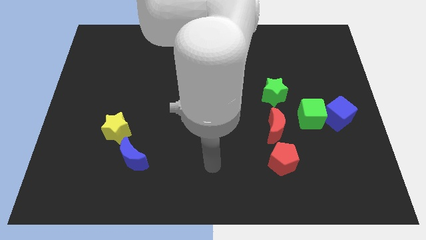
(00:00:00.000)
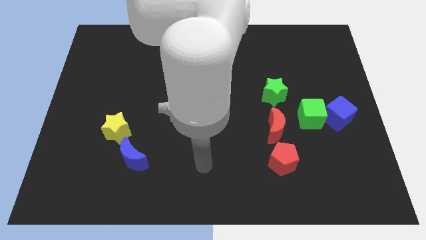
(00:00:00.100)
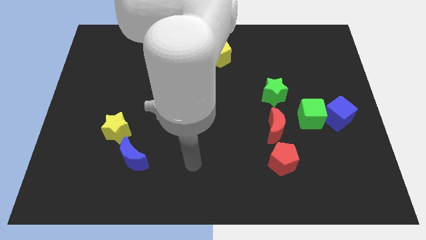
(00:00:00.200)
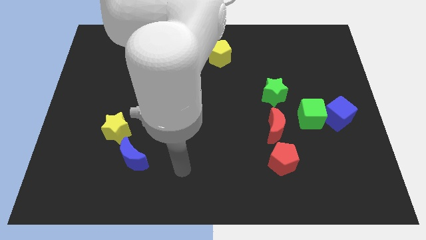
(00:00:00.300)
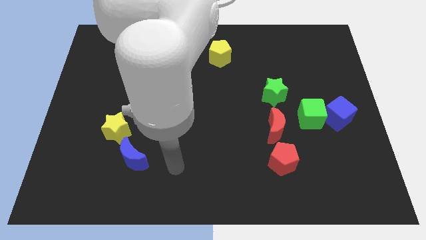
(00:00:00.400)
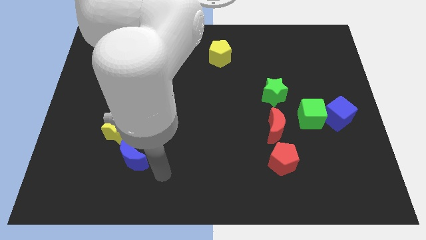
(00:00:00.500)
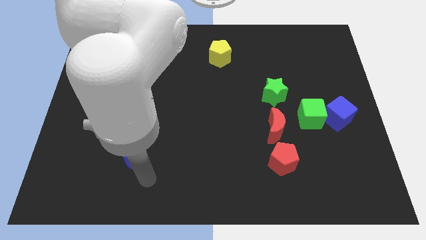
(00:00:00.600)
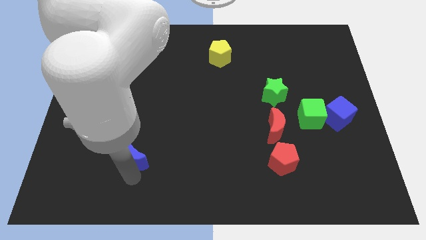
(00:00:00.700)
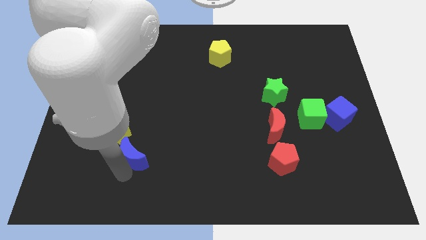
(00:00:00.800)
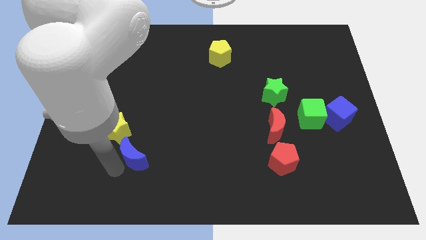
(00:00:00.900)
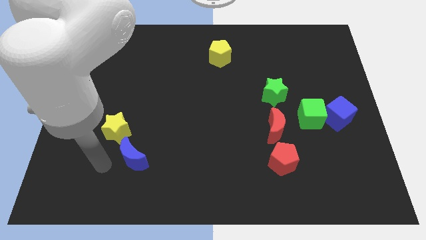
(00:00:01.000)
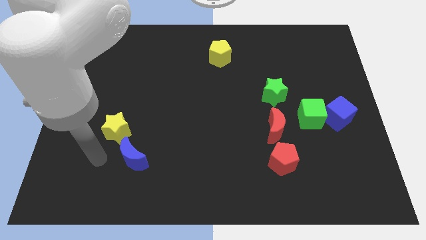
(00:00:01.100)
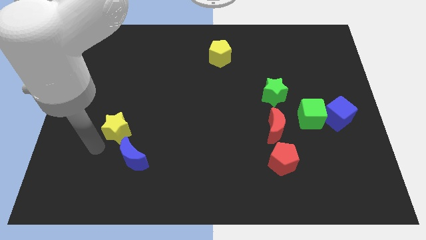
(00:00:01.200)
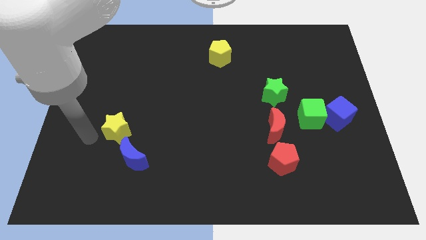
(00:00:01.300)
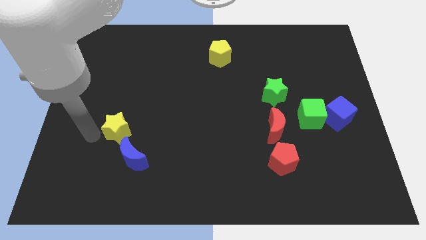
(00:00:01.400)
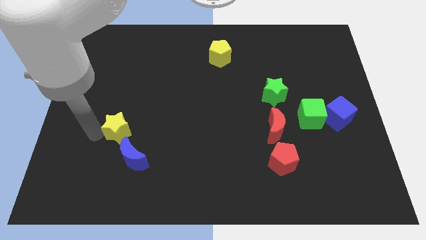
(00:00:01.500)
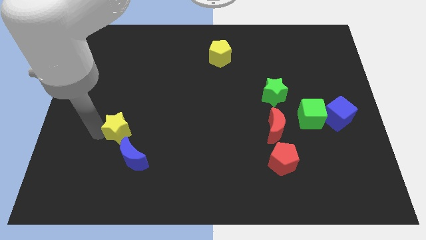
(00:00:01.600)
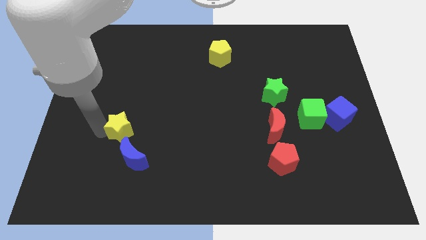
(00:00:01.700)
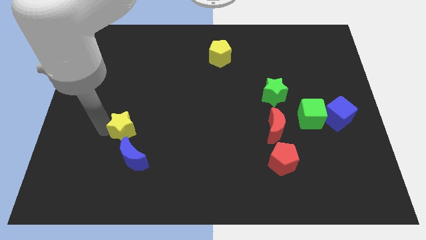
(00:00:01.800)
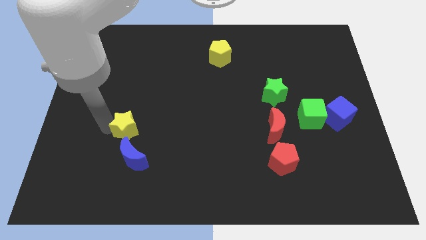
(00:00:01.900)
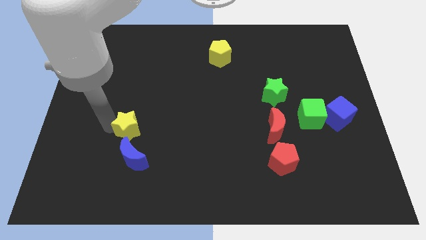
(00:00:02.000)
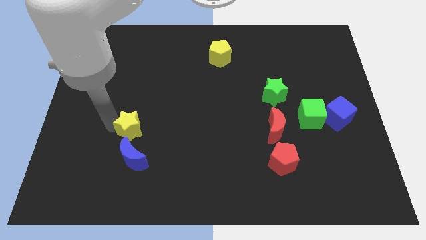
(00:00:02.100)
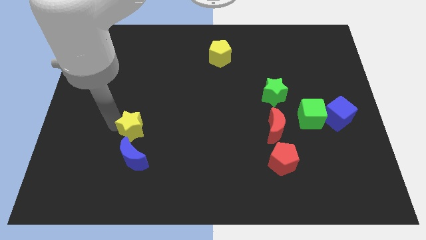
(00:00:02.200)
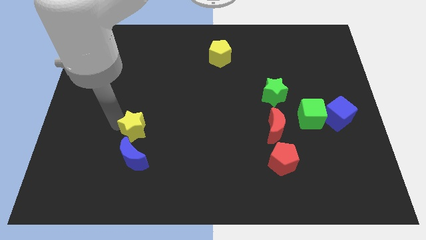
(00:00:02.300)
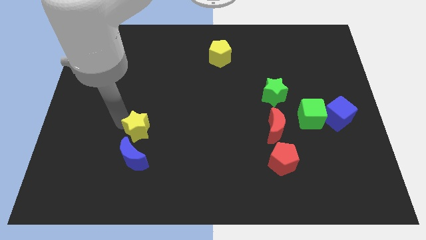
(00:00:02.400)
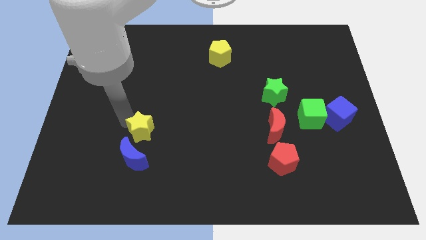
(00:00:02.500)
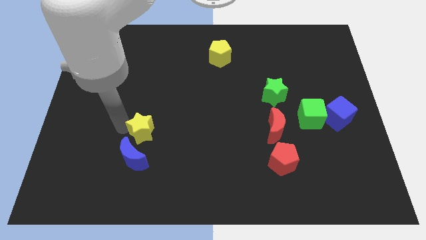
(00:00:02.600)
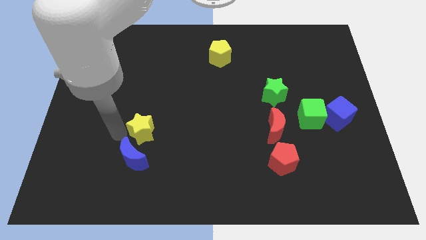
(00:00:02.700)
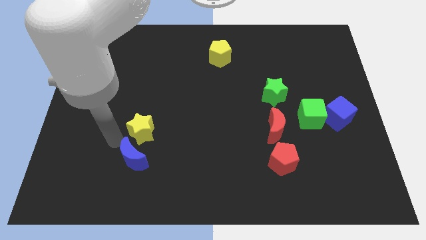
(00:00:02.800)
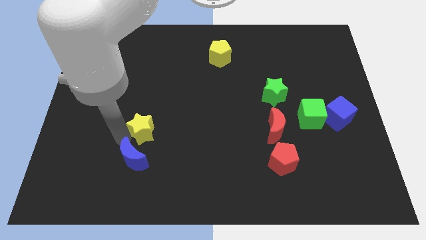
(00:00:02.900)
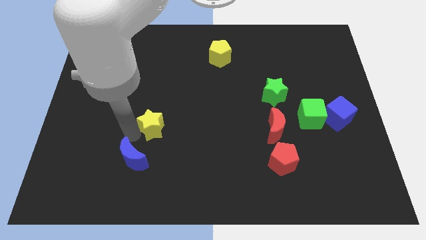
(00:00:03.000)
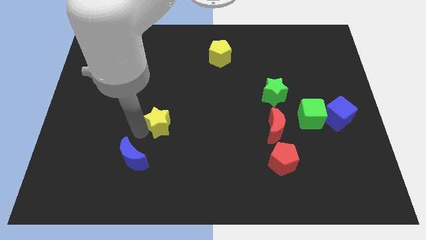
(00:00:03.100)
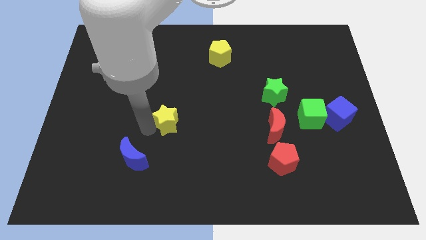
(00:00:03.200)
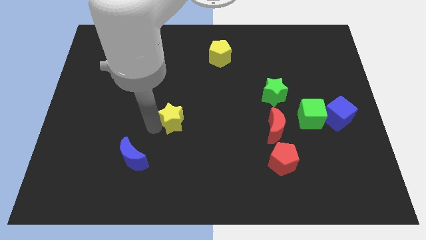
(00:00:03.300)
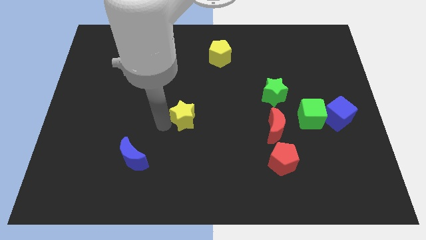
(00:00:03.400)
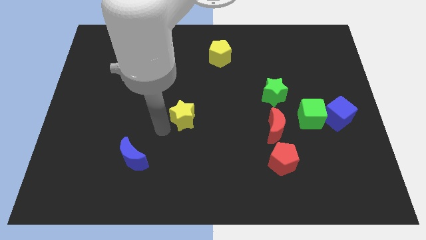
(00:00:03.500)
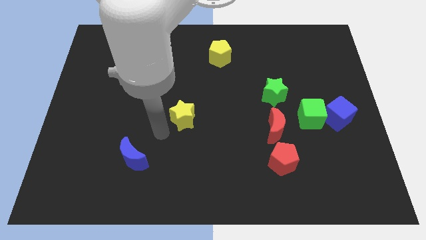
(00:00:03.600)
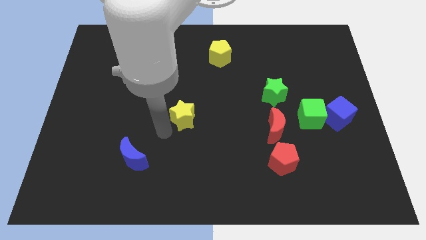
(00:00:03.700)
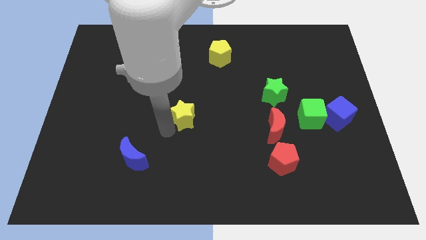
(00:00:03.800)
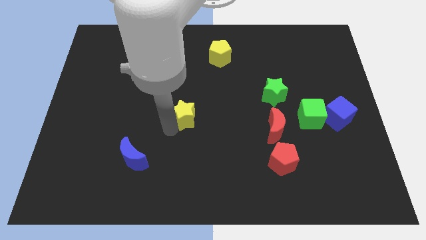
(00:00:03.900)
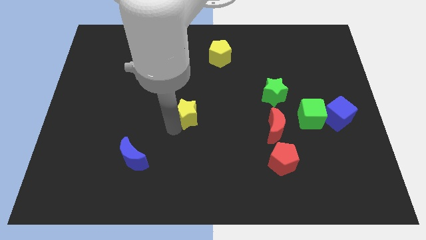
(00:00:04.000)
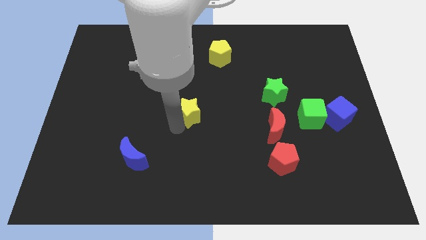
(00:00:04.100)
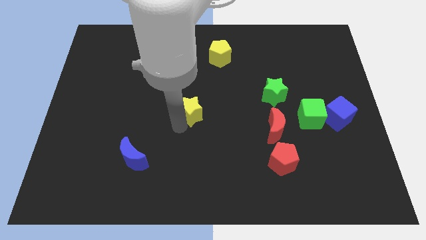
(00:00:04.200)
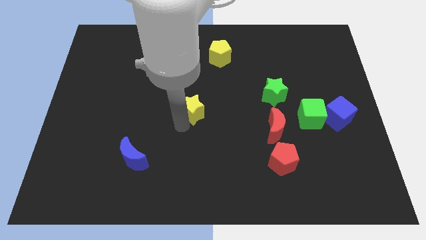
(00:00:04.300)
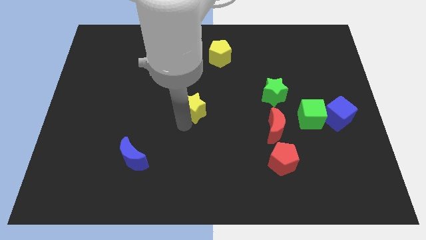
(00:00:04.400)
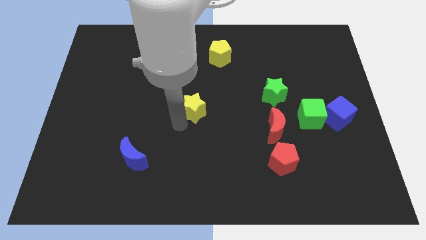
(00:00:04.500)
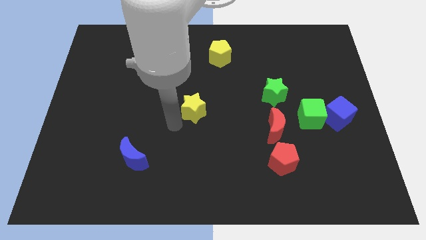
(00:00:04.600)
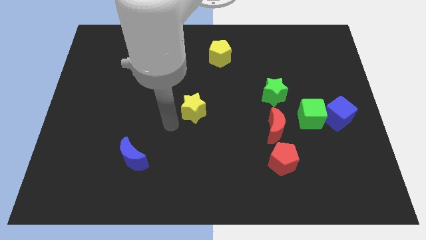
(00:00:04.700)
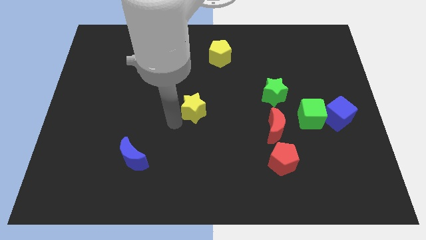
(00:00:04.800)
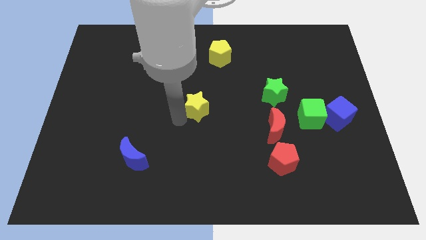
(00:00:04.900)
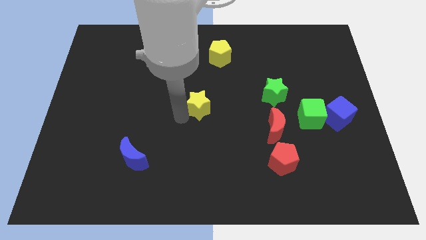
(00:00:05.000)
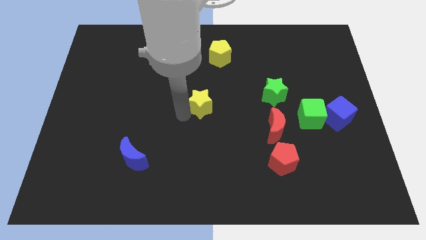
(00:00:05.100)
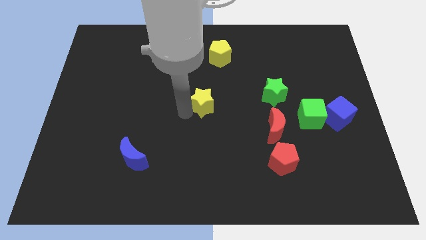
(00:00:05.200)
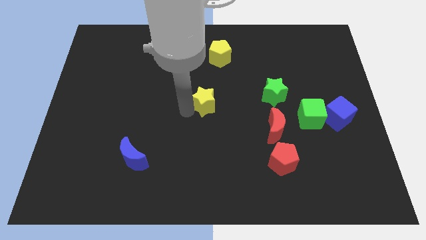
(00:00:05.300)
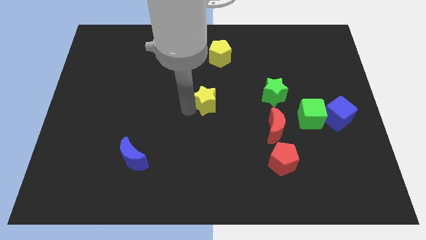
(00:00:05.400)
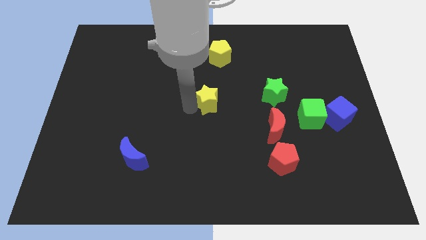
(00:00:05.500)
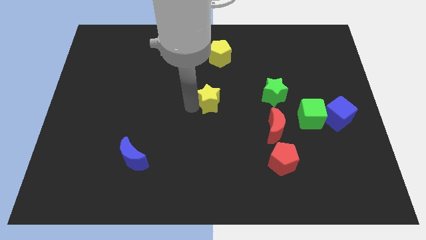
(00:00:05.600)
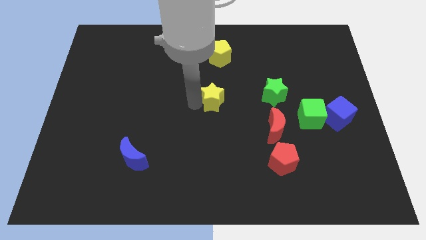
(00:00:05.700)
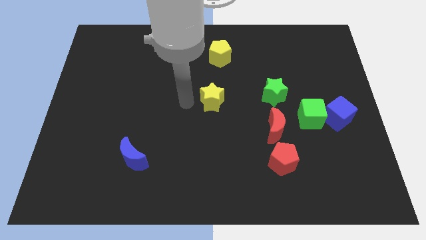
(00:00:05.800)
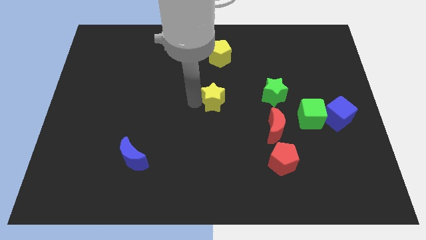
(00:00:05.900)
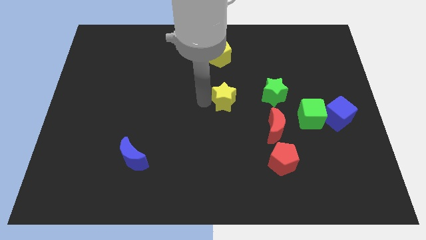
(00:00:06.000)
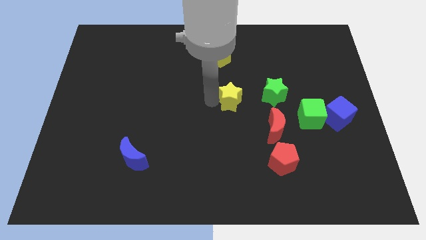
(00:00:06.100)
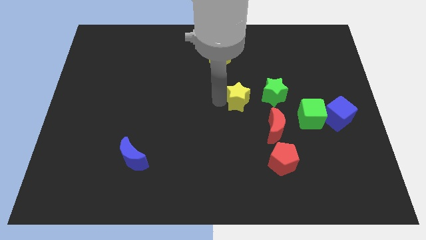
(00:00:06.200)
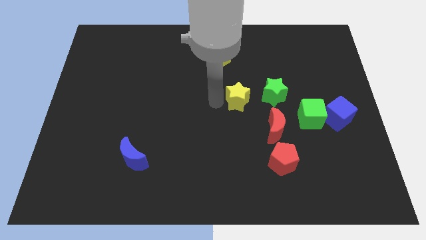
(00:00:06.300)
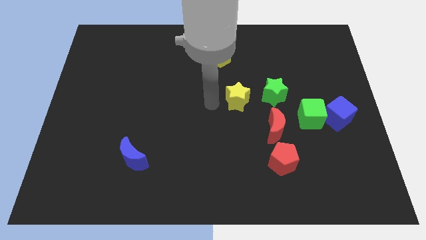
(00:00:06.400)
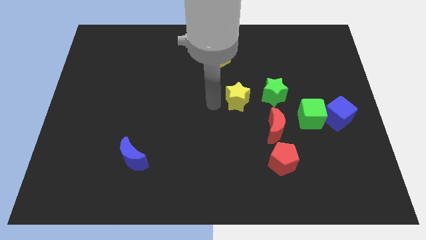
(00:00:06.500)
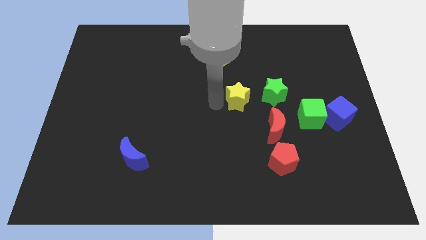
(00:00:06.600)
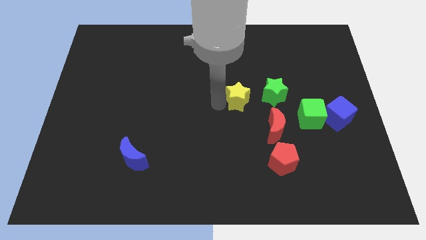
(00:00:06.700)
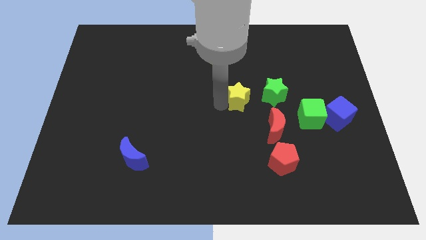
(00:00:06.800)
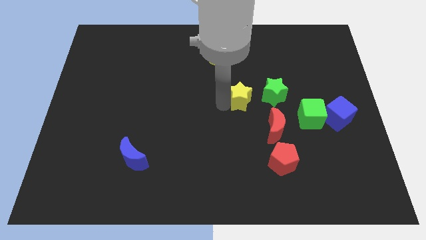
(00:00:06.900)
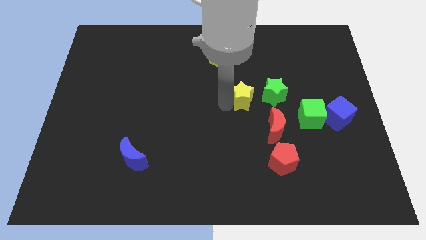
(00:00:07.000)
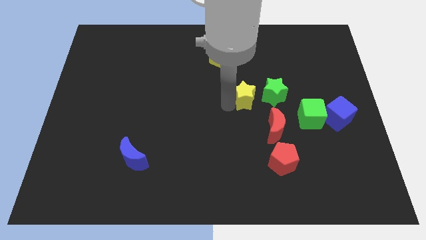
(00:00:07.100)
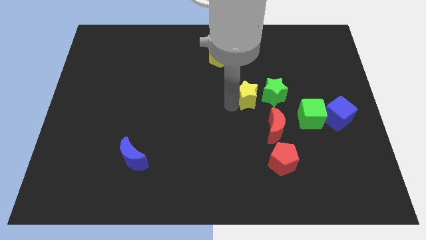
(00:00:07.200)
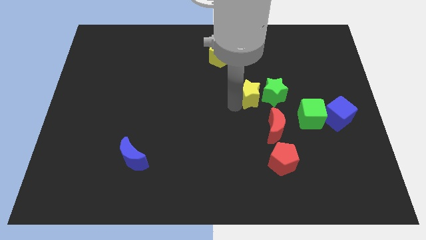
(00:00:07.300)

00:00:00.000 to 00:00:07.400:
move the yellow star towards the green star
